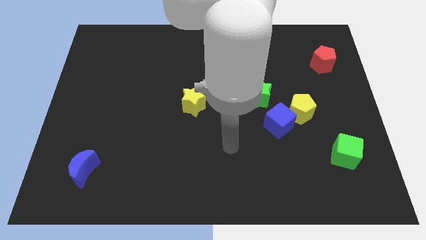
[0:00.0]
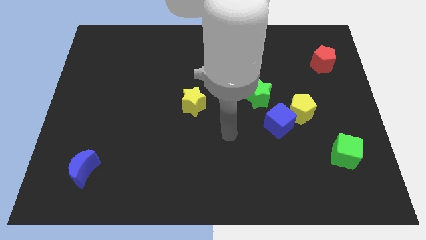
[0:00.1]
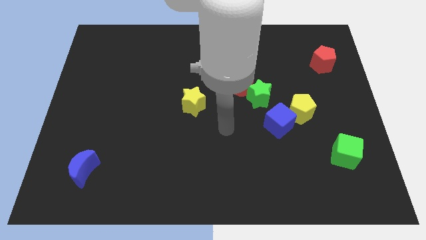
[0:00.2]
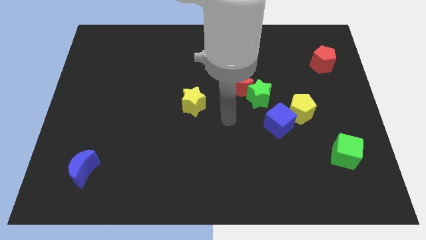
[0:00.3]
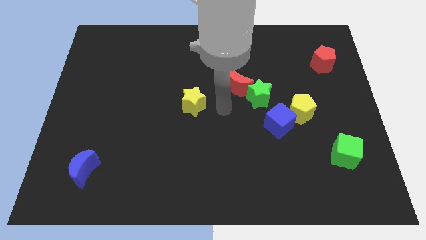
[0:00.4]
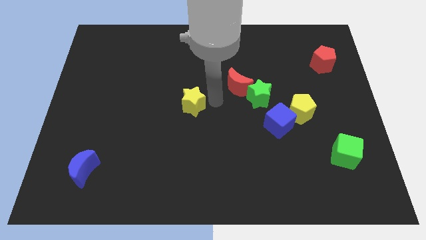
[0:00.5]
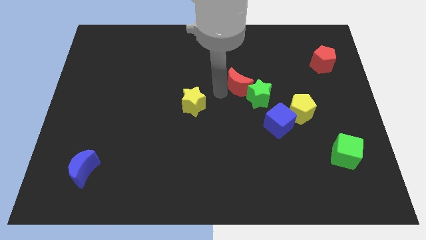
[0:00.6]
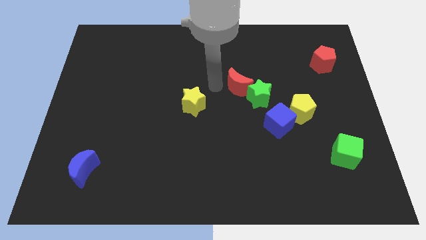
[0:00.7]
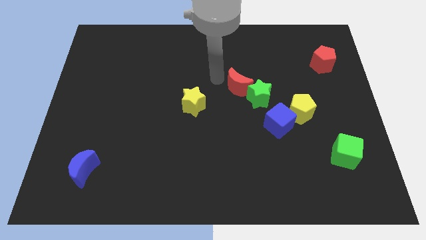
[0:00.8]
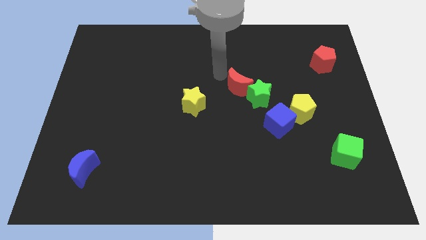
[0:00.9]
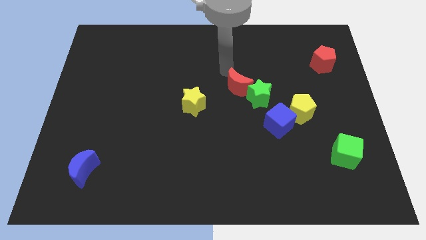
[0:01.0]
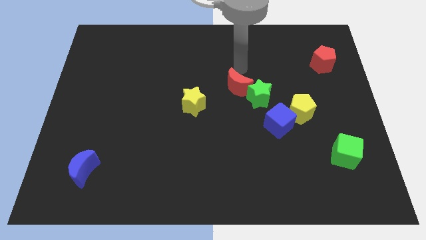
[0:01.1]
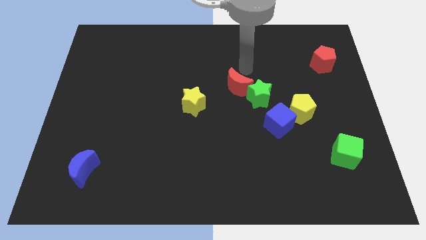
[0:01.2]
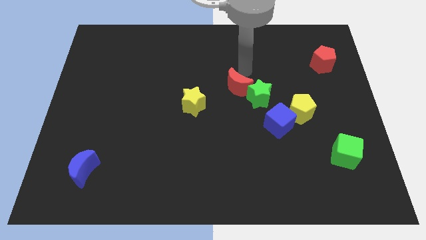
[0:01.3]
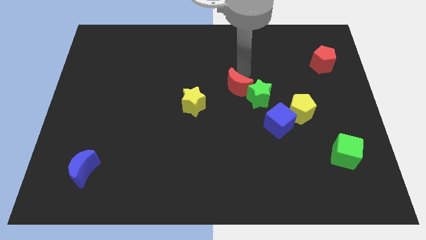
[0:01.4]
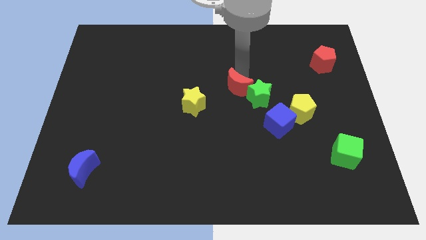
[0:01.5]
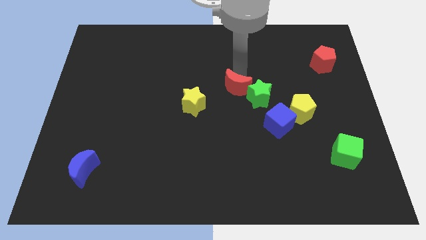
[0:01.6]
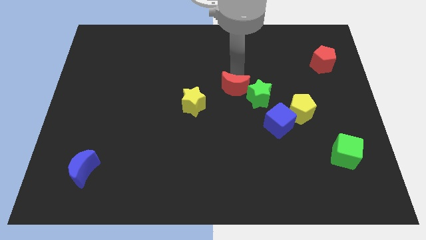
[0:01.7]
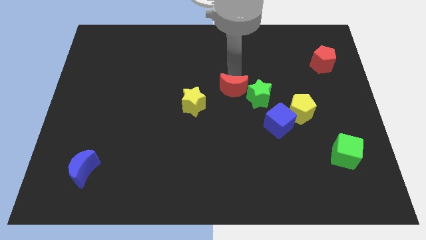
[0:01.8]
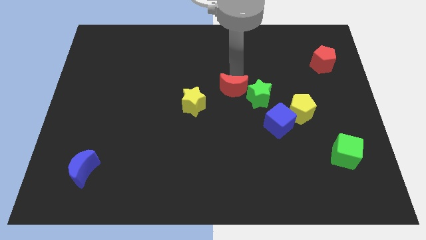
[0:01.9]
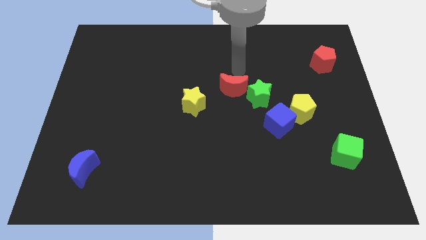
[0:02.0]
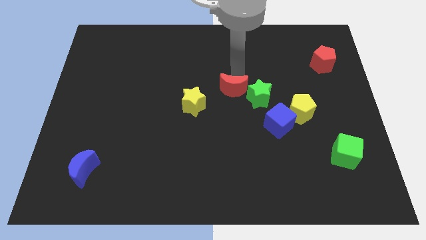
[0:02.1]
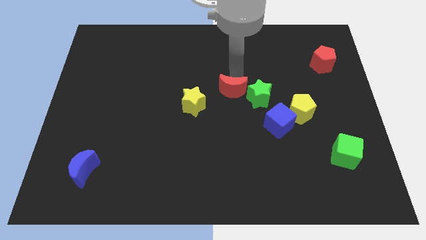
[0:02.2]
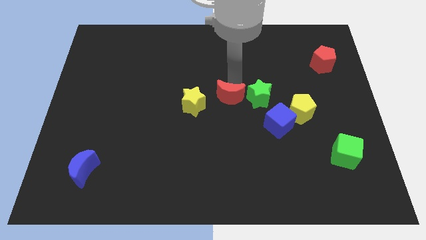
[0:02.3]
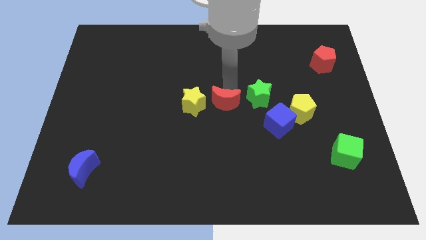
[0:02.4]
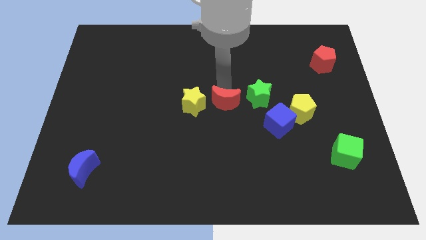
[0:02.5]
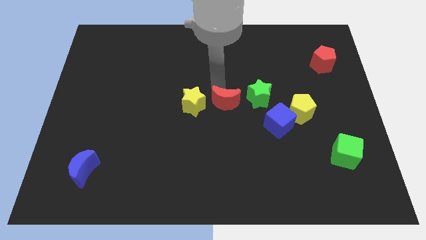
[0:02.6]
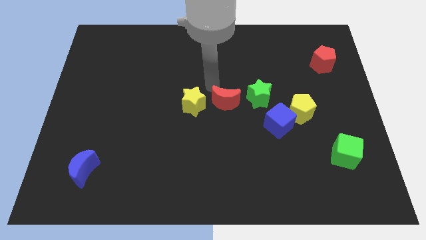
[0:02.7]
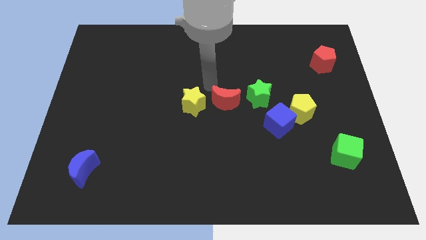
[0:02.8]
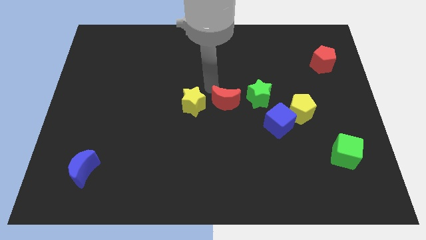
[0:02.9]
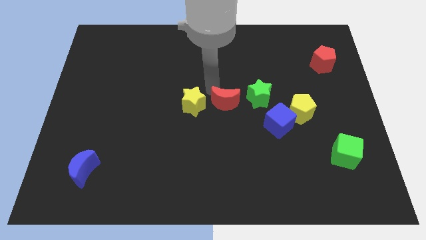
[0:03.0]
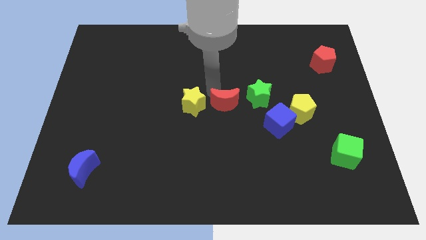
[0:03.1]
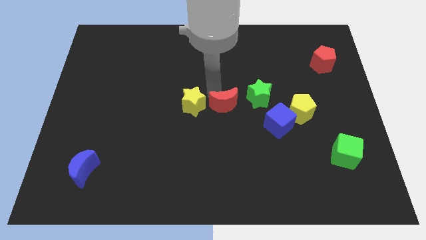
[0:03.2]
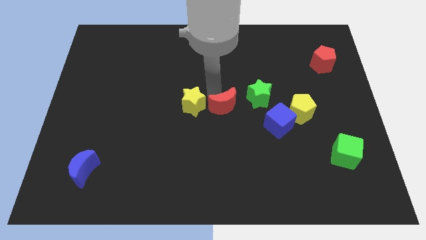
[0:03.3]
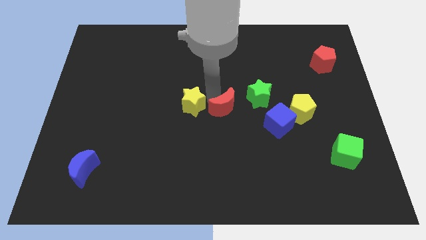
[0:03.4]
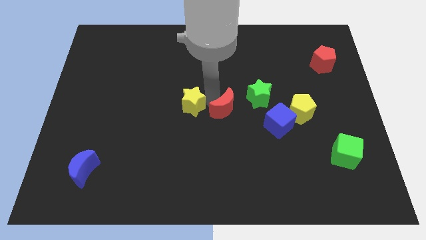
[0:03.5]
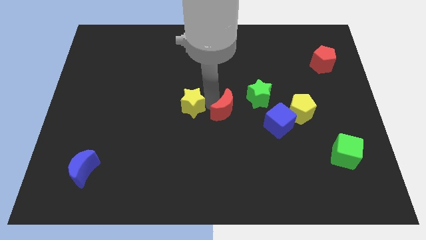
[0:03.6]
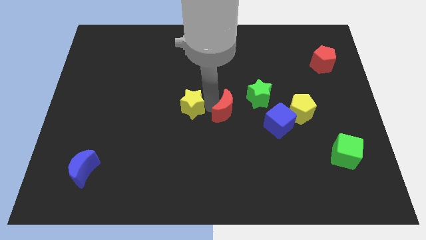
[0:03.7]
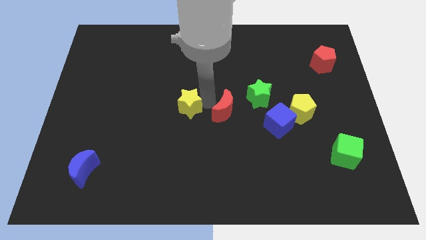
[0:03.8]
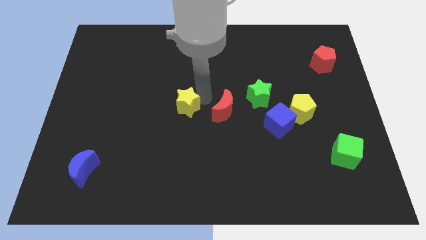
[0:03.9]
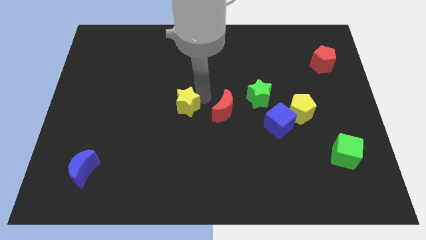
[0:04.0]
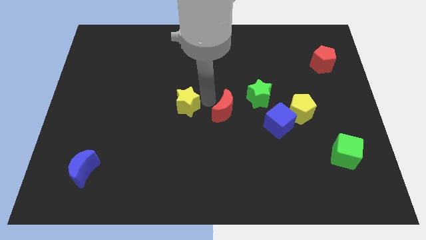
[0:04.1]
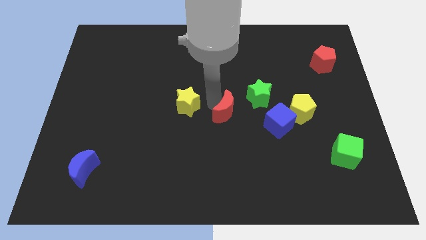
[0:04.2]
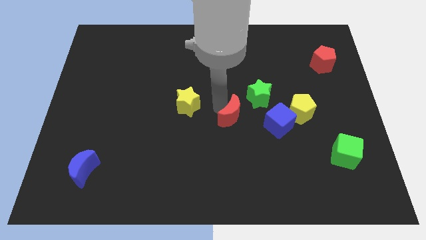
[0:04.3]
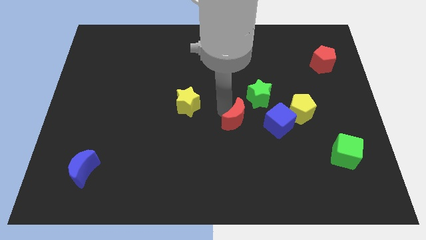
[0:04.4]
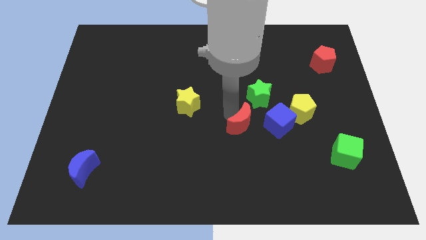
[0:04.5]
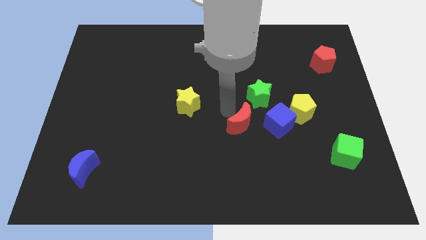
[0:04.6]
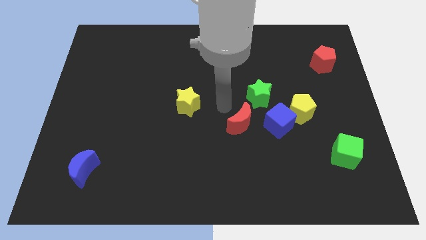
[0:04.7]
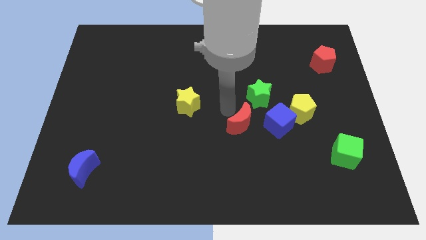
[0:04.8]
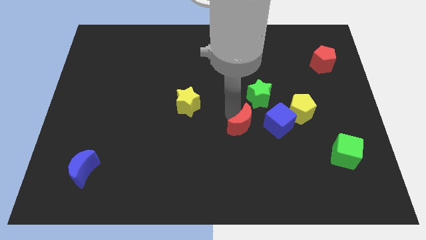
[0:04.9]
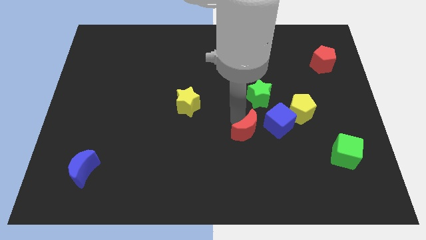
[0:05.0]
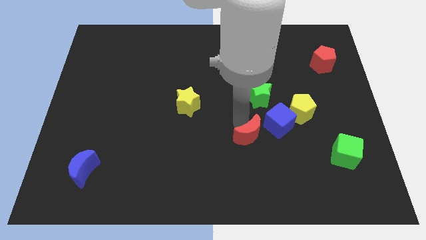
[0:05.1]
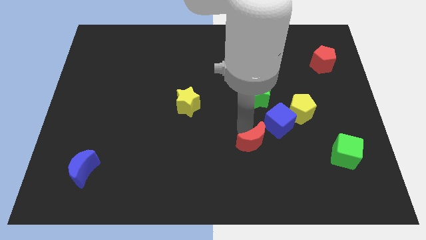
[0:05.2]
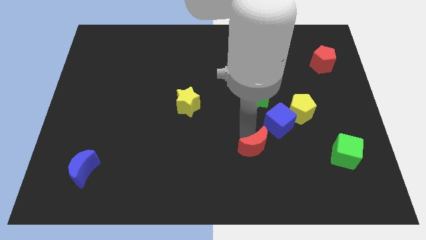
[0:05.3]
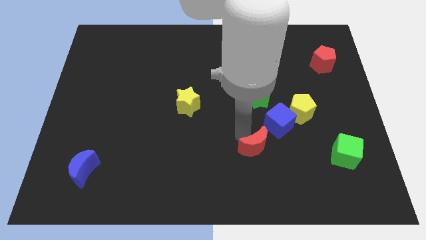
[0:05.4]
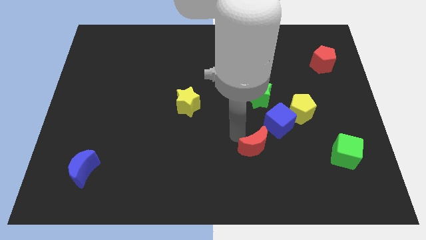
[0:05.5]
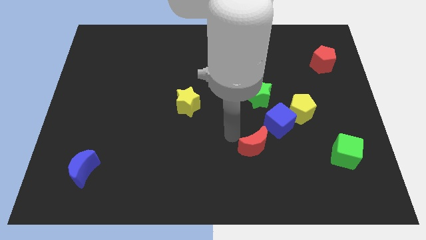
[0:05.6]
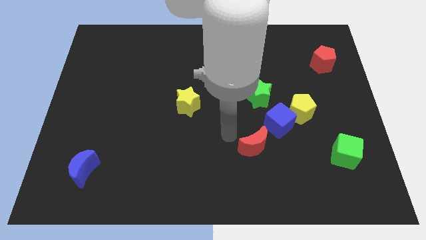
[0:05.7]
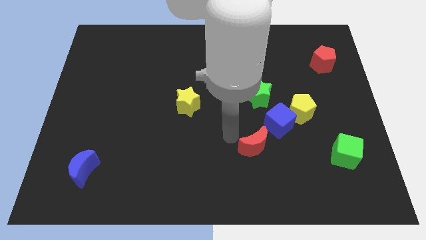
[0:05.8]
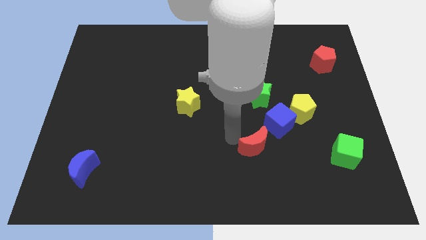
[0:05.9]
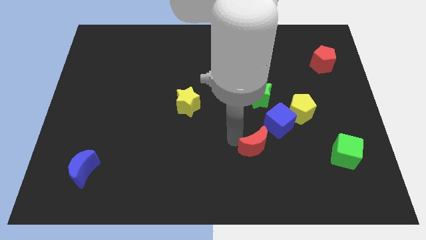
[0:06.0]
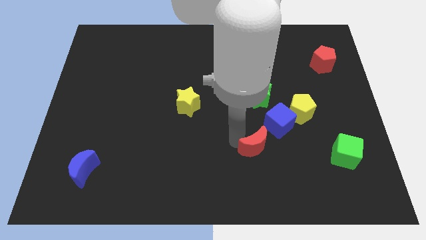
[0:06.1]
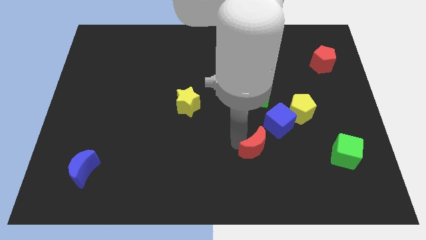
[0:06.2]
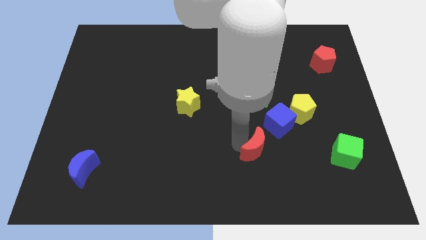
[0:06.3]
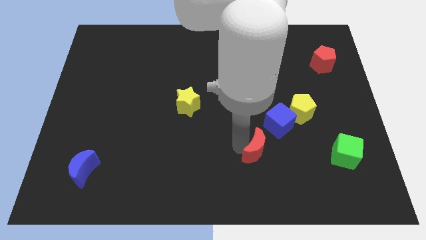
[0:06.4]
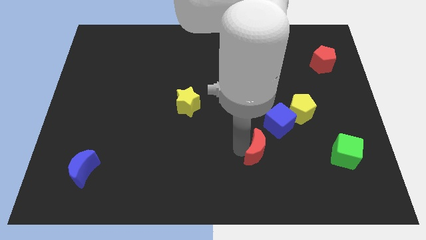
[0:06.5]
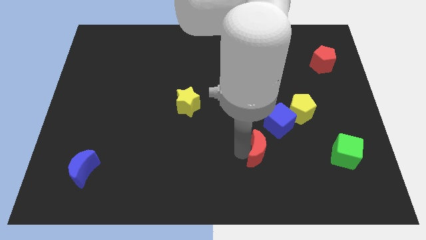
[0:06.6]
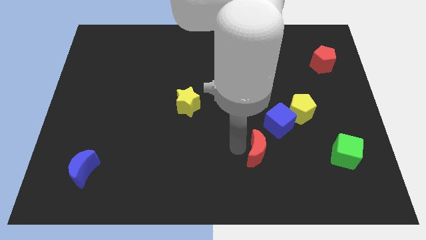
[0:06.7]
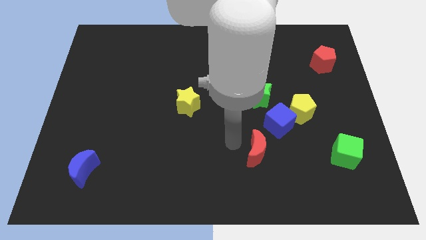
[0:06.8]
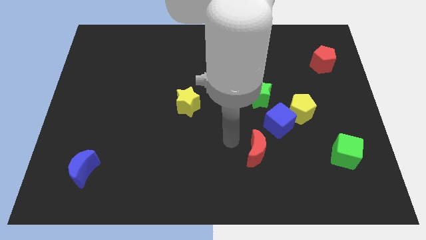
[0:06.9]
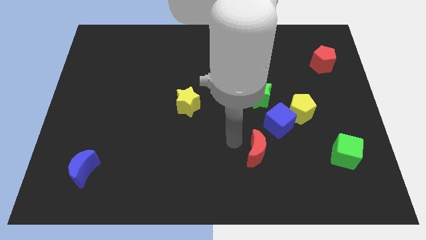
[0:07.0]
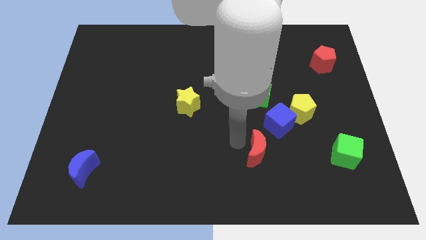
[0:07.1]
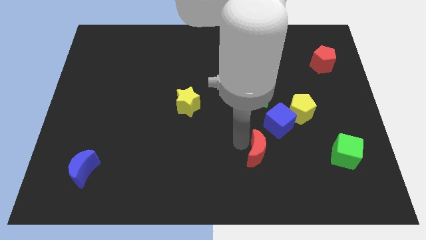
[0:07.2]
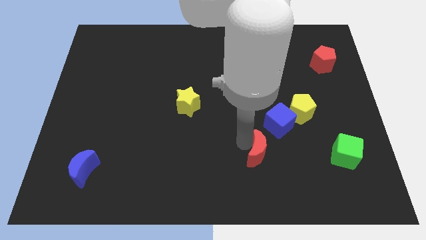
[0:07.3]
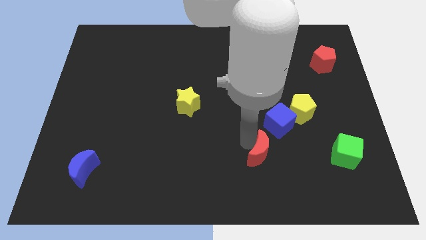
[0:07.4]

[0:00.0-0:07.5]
push the red moon below the blue cube
